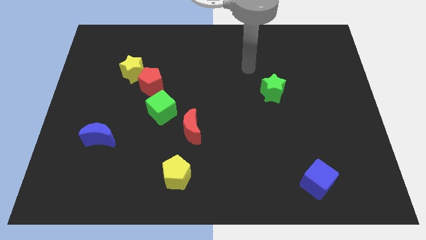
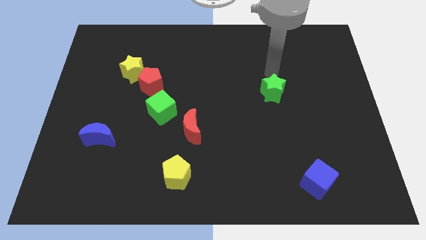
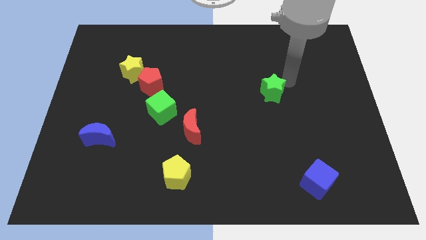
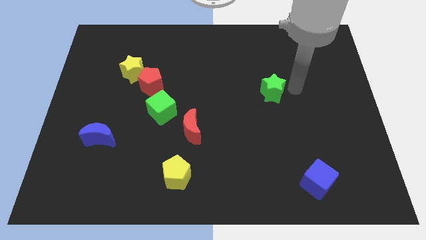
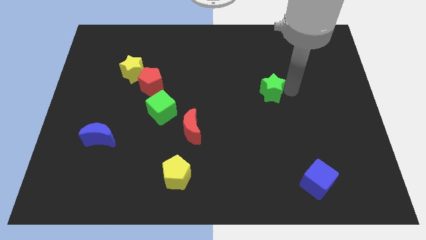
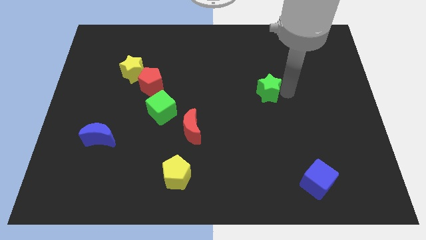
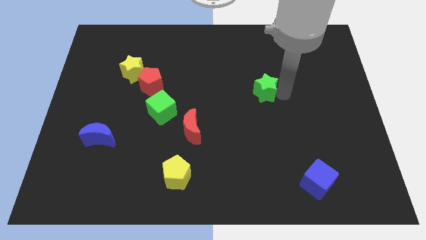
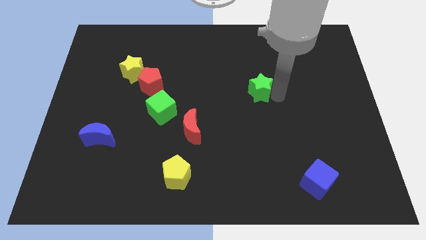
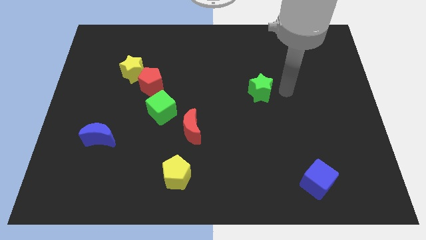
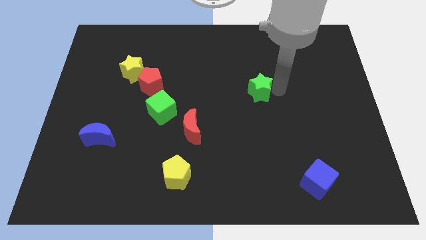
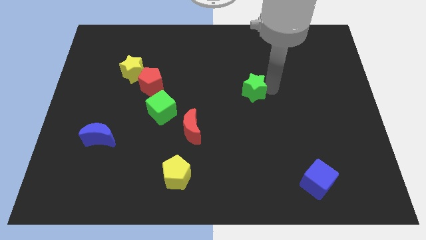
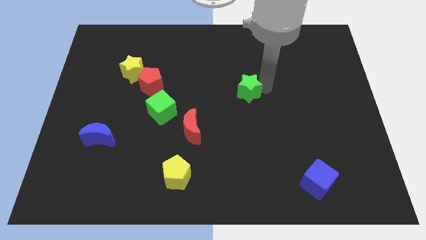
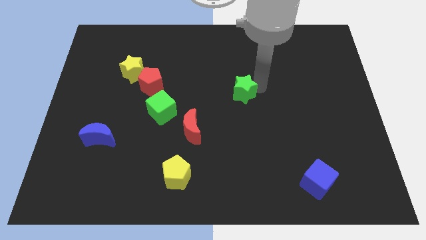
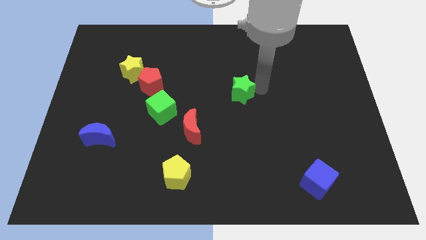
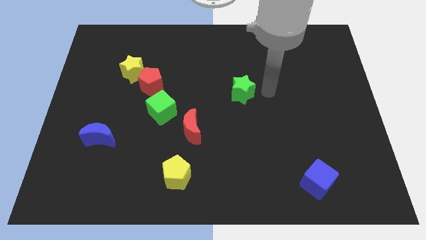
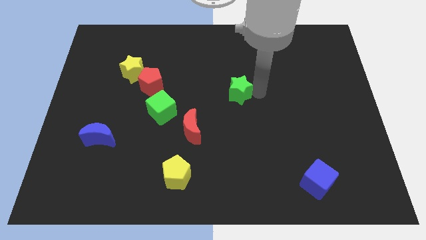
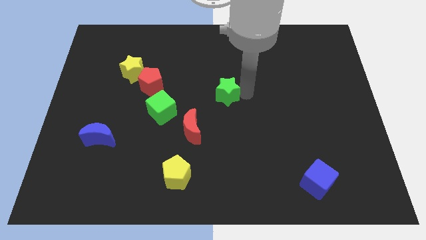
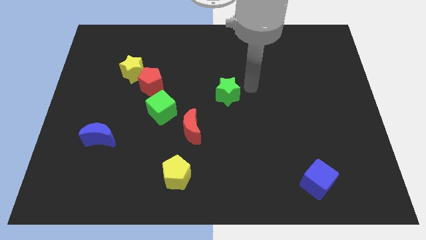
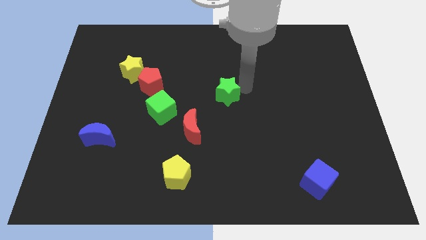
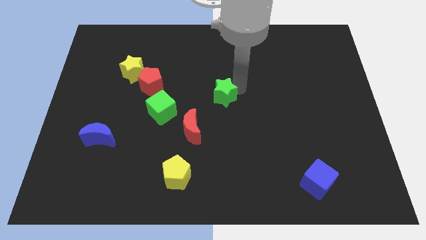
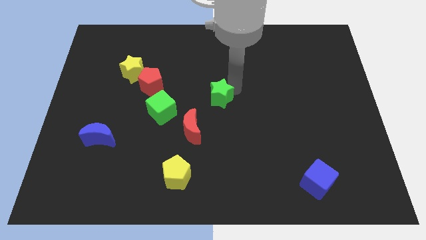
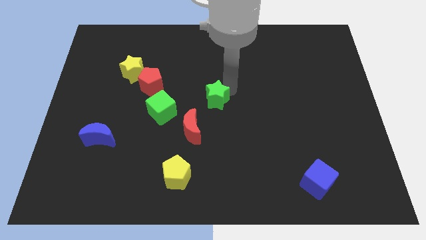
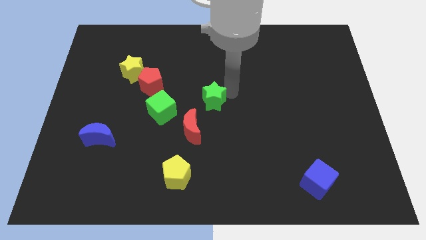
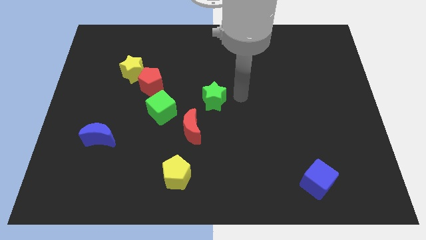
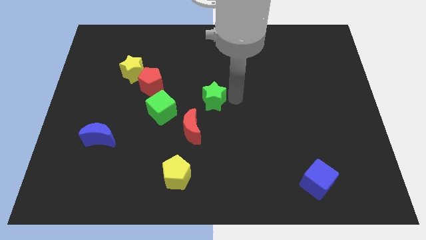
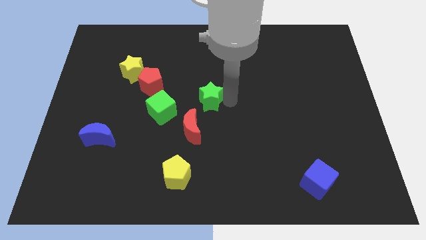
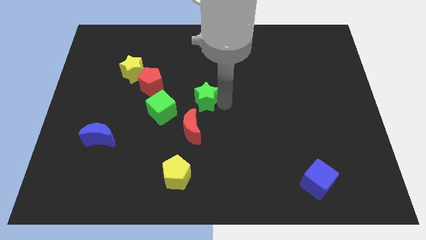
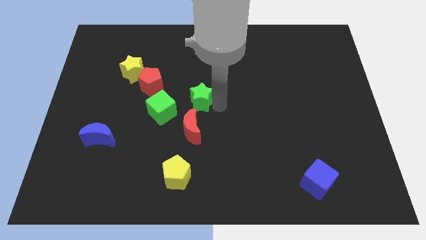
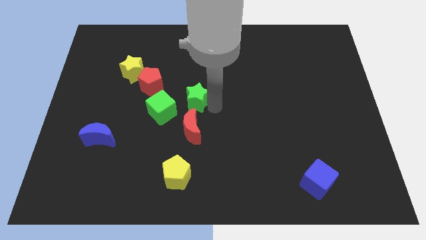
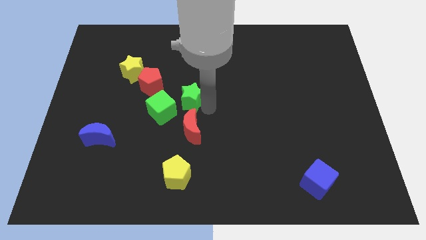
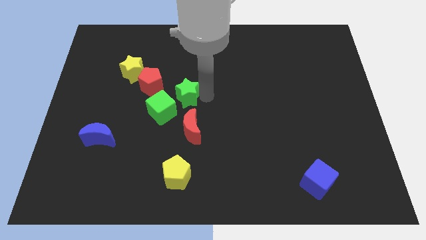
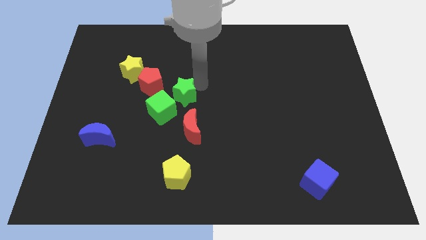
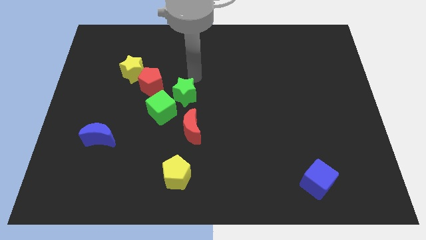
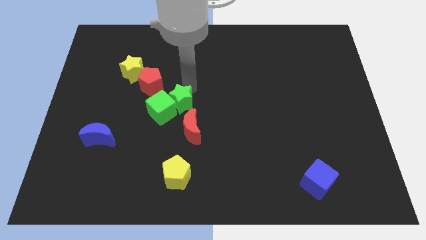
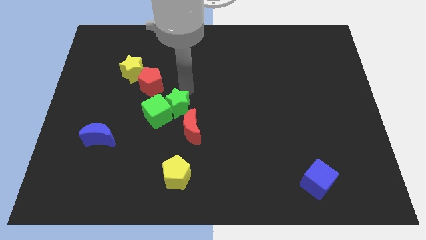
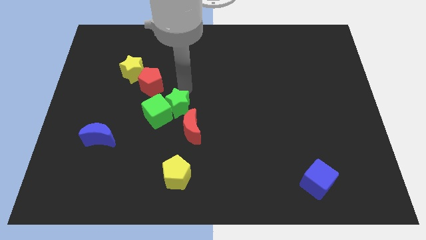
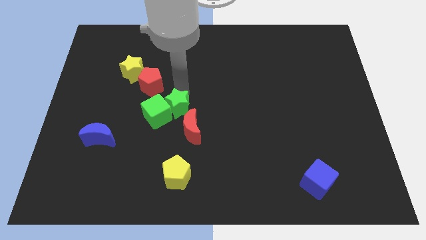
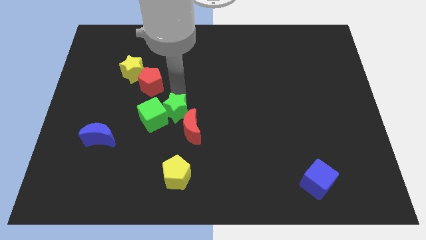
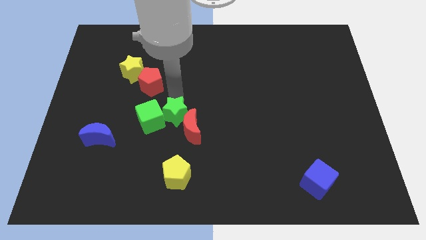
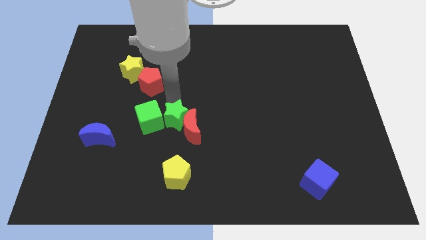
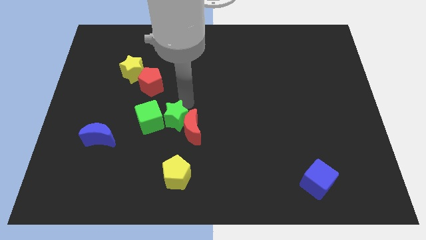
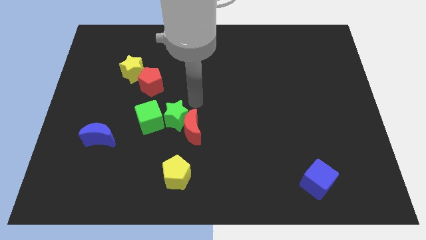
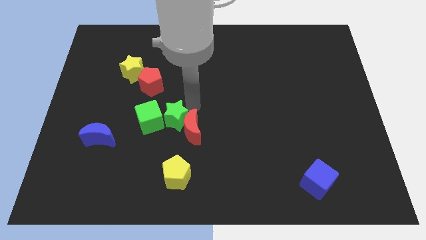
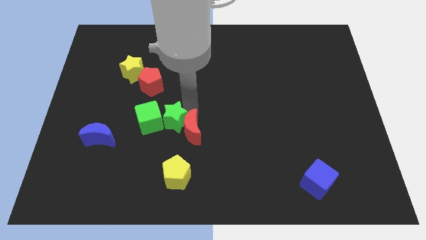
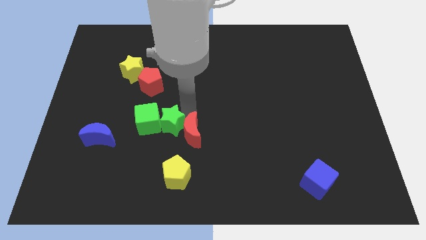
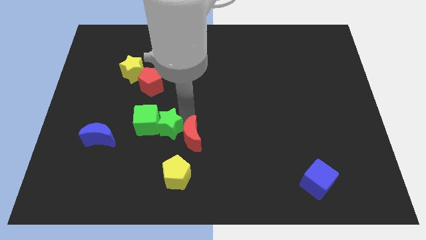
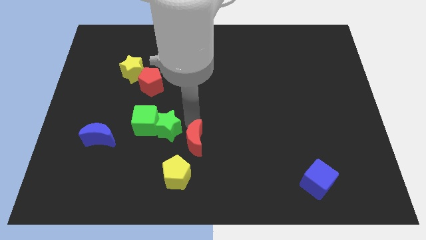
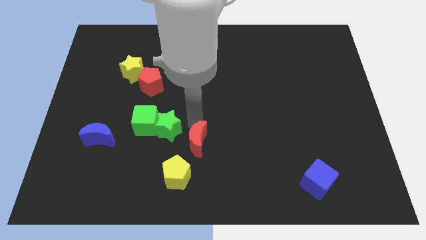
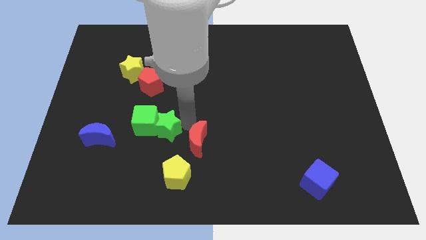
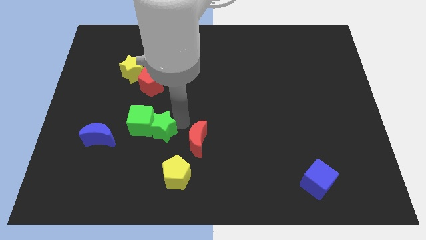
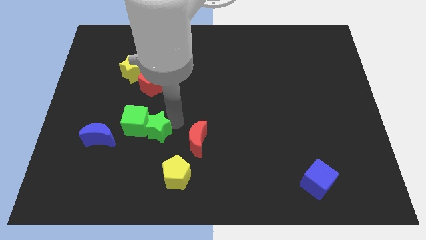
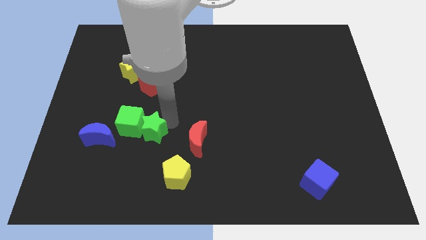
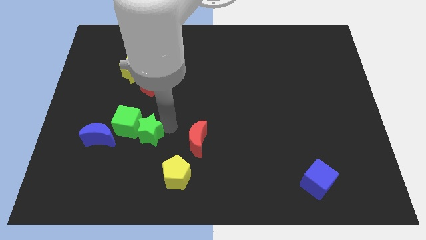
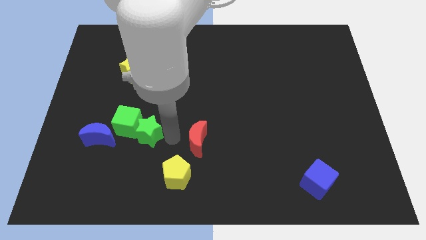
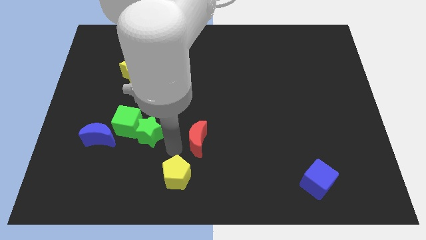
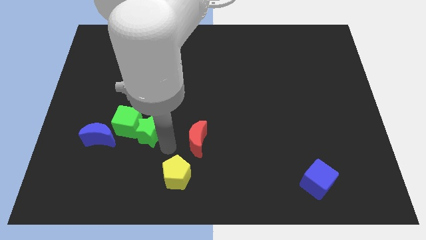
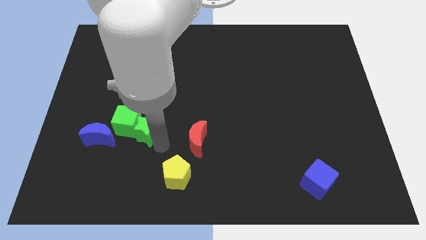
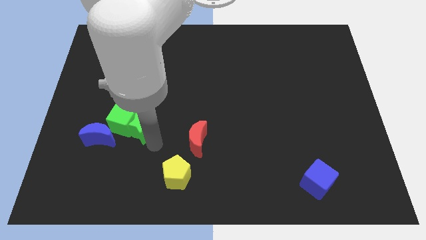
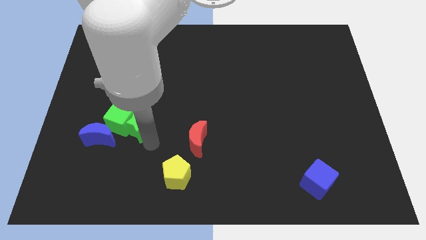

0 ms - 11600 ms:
push the green star diagonally up and to the right of the blue moon

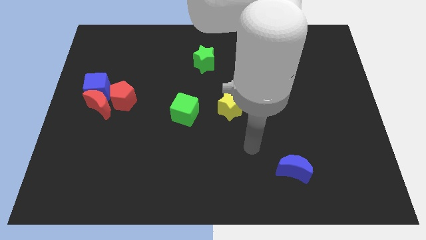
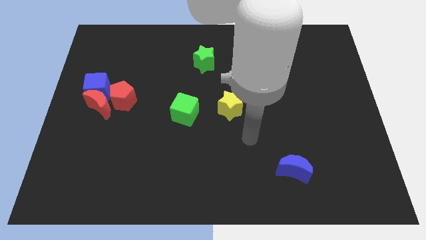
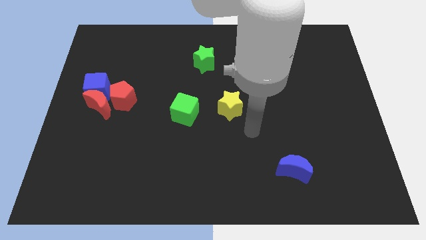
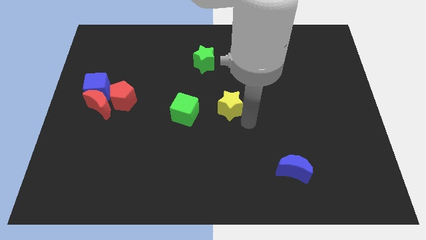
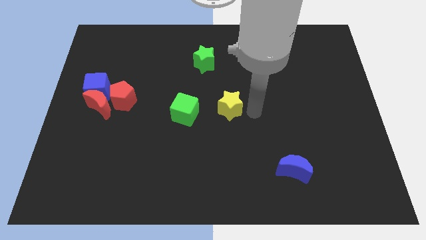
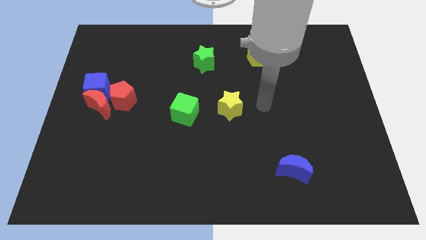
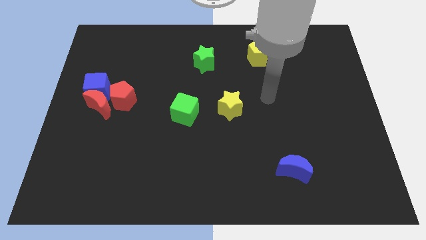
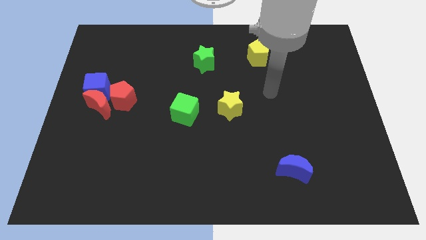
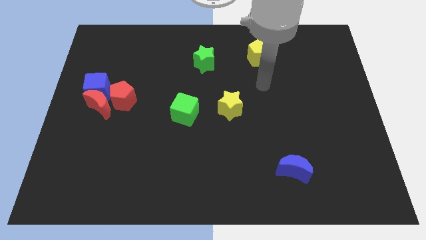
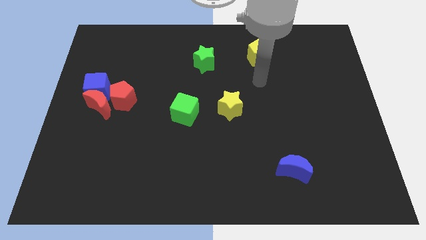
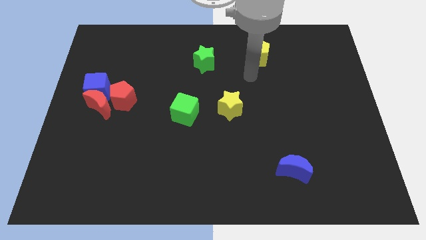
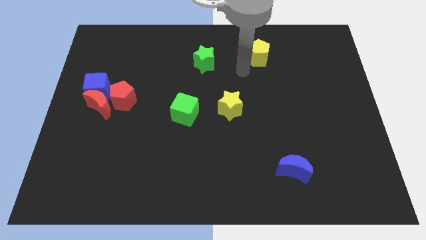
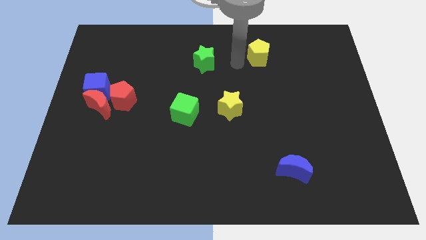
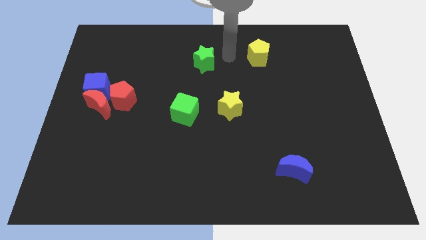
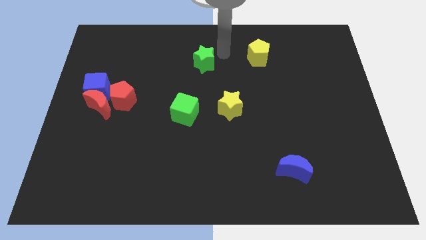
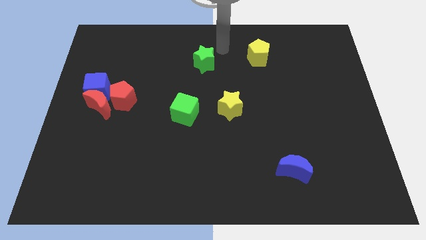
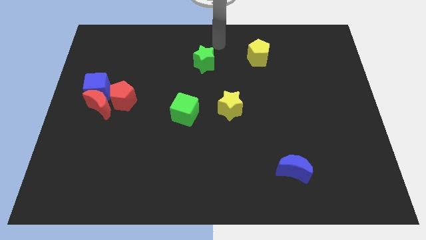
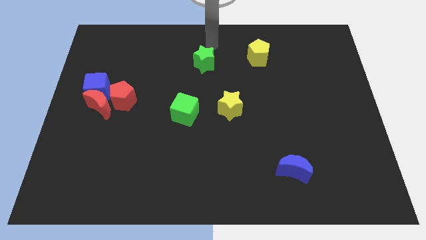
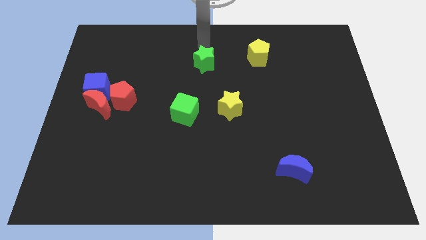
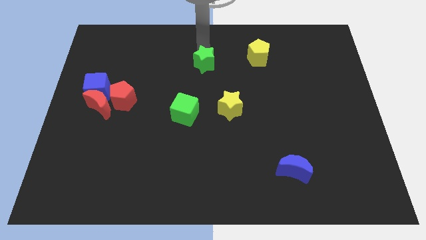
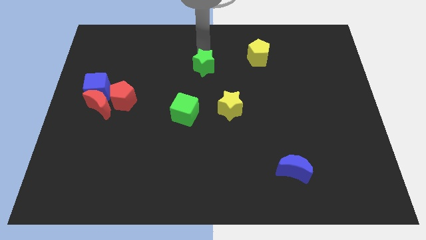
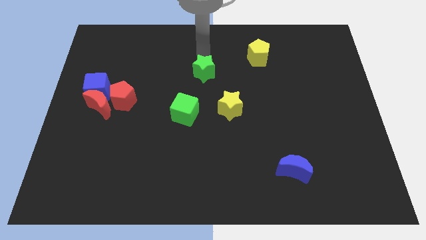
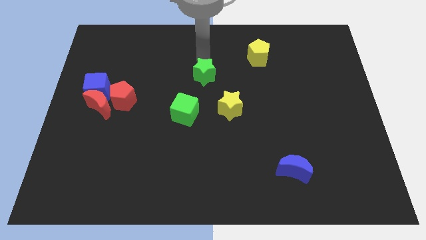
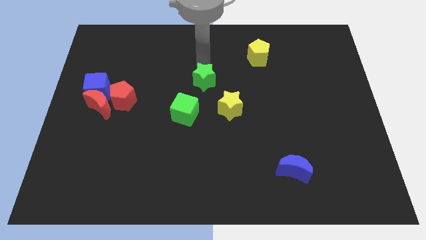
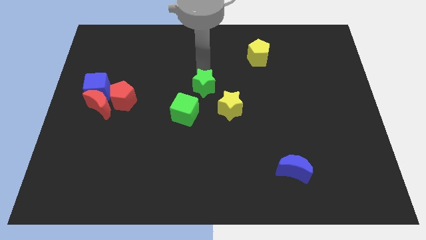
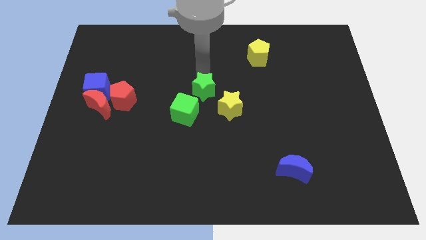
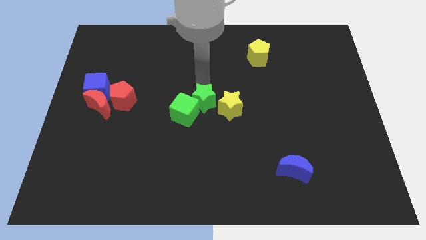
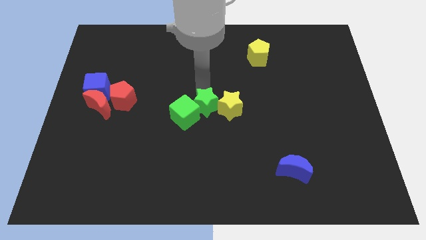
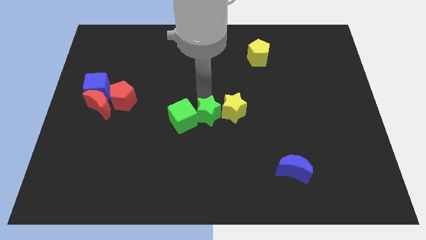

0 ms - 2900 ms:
move the green star to the bottom right side of the green cube
